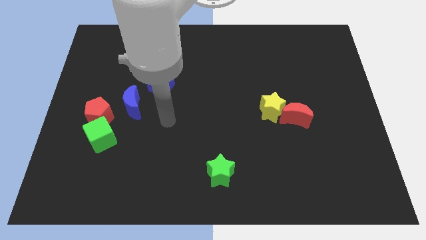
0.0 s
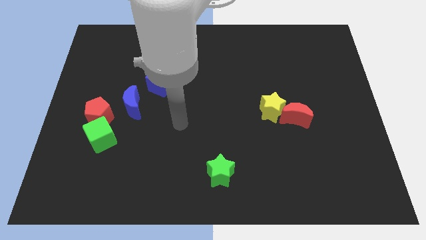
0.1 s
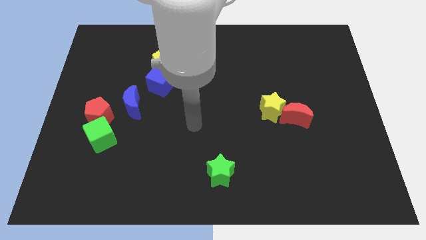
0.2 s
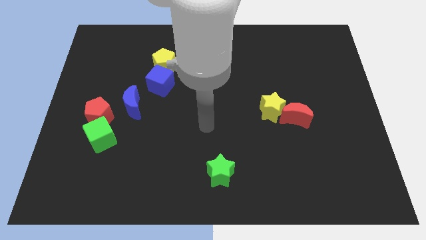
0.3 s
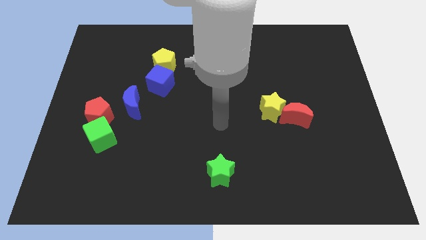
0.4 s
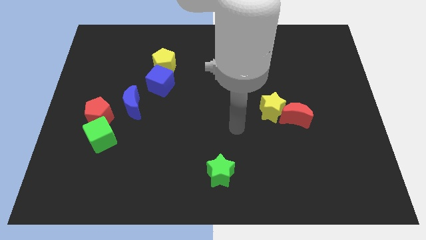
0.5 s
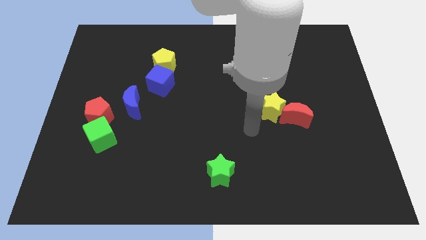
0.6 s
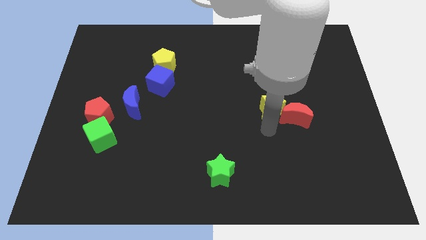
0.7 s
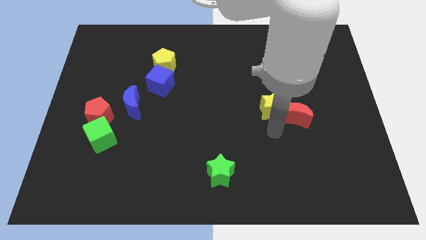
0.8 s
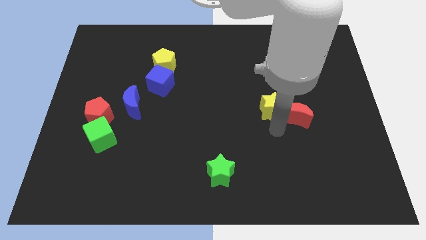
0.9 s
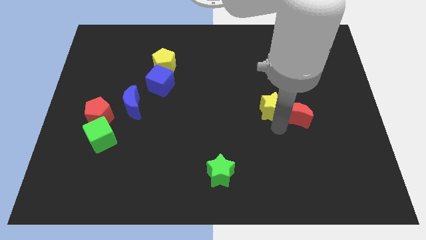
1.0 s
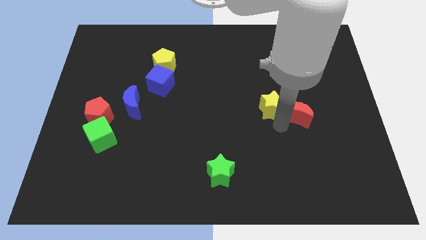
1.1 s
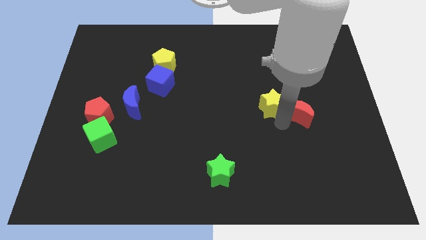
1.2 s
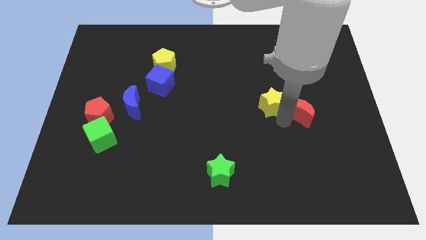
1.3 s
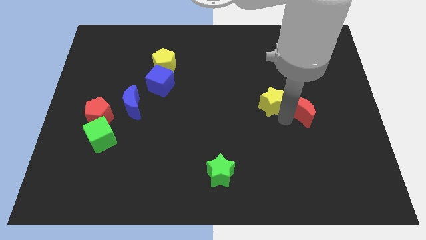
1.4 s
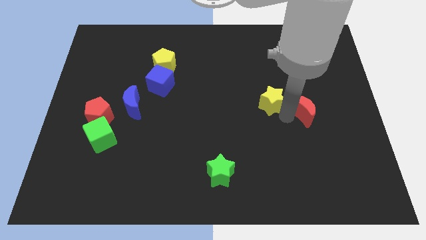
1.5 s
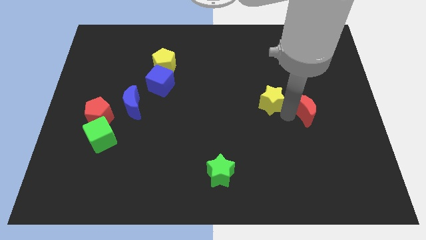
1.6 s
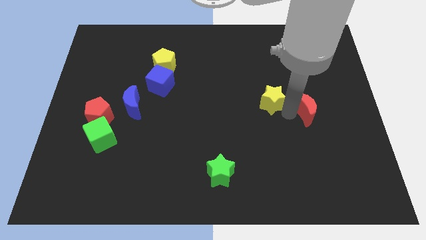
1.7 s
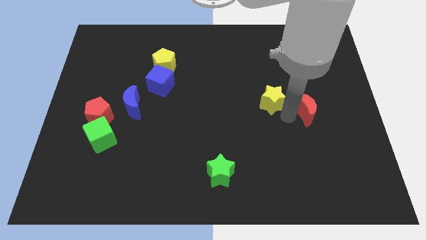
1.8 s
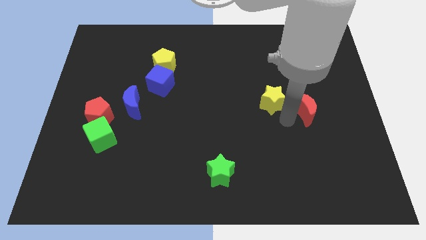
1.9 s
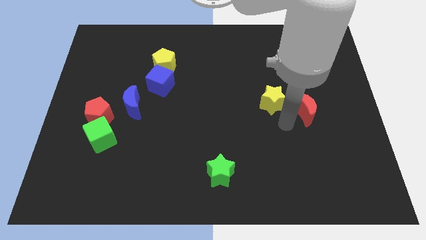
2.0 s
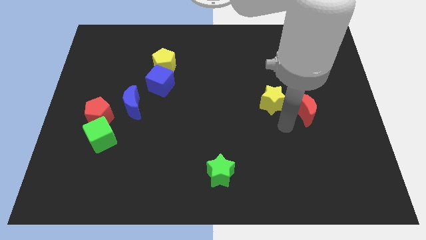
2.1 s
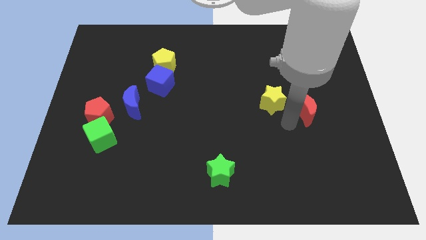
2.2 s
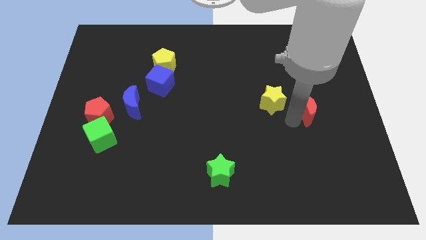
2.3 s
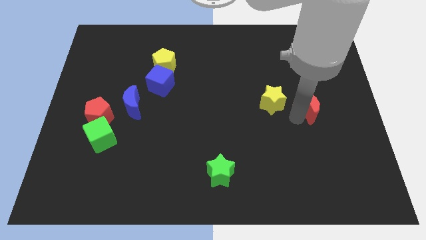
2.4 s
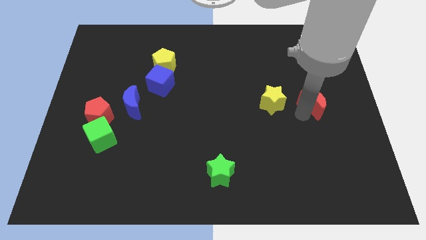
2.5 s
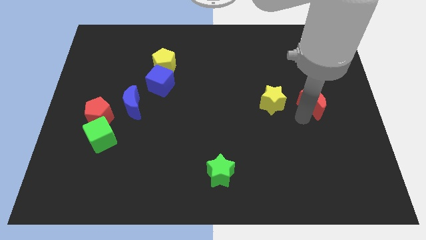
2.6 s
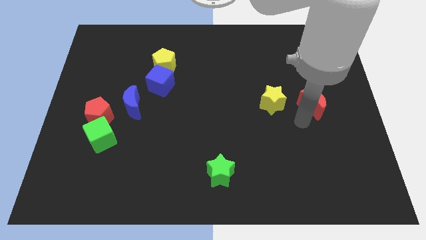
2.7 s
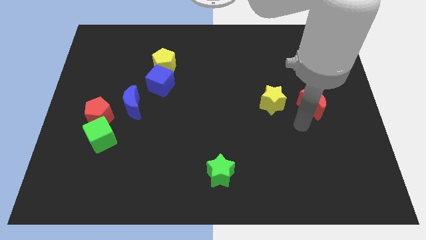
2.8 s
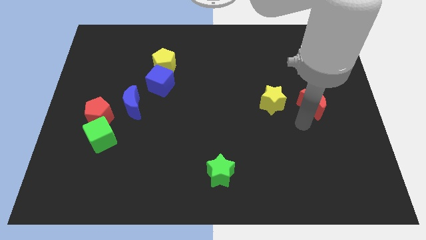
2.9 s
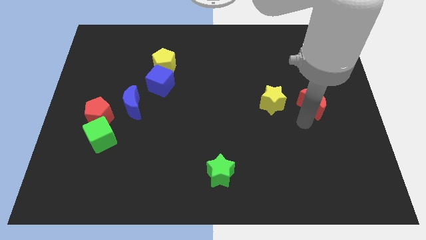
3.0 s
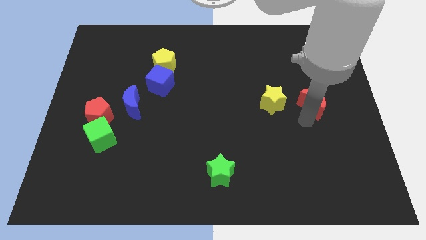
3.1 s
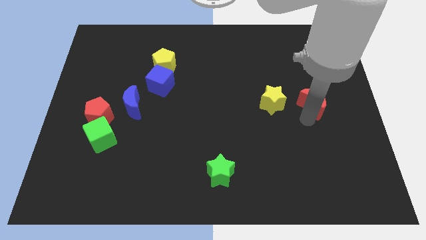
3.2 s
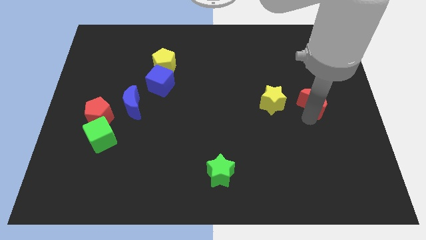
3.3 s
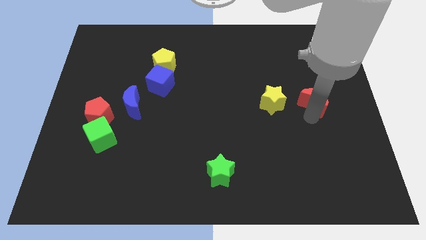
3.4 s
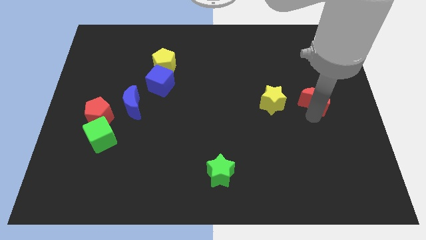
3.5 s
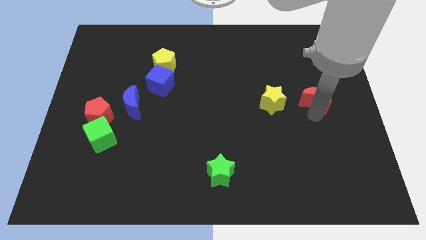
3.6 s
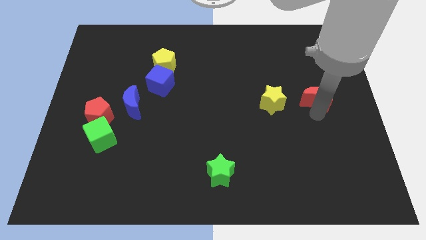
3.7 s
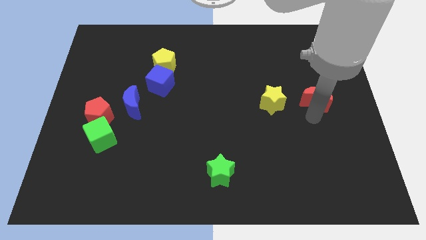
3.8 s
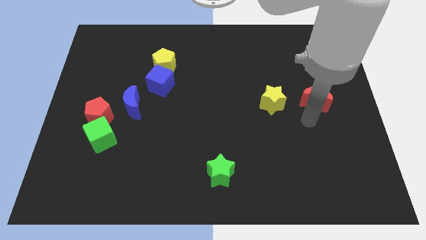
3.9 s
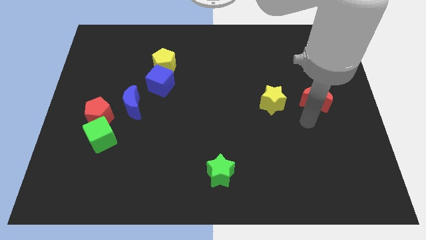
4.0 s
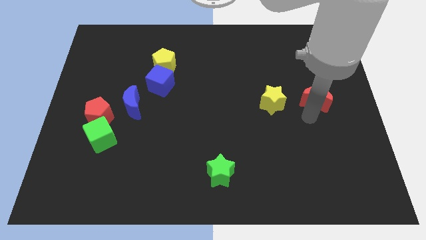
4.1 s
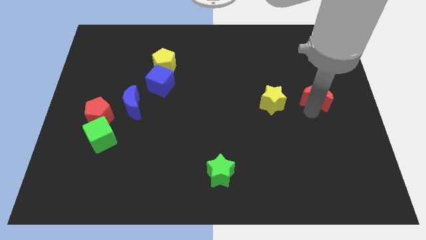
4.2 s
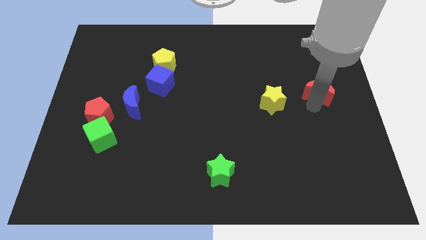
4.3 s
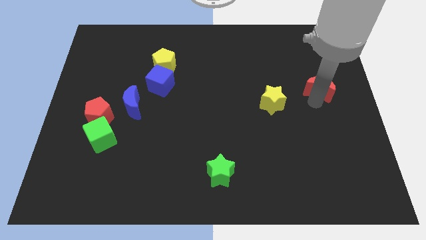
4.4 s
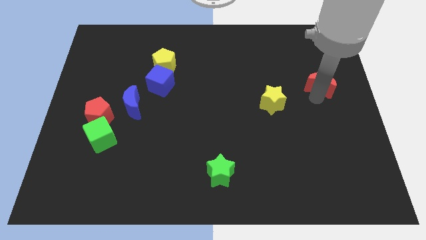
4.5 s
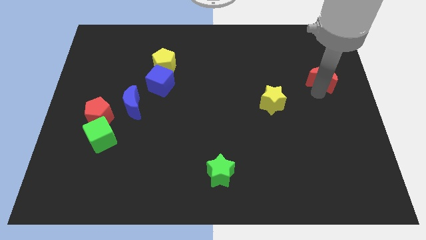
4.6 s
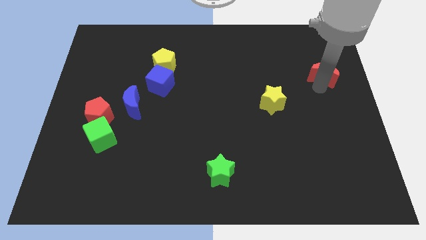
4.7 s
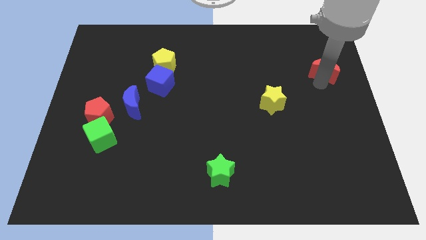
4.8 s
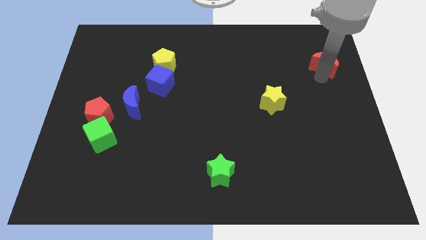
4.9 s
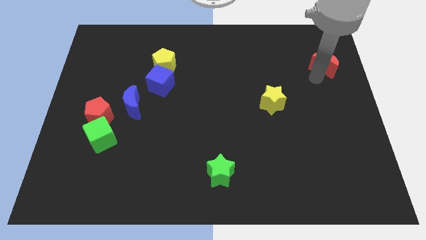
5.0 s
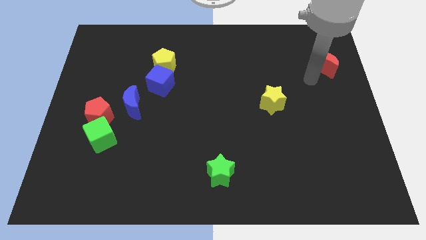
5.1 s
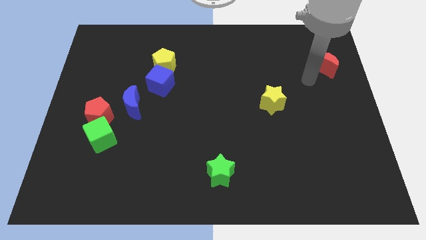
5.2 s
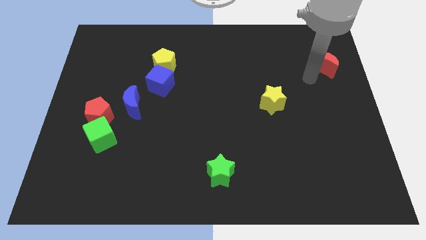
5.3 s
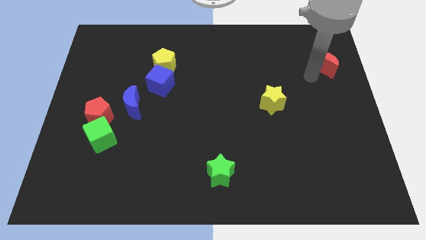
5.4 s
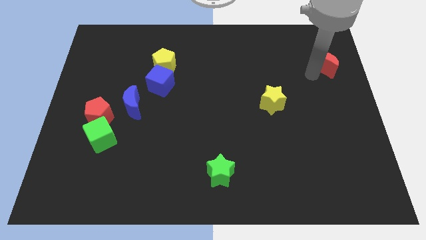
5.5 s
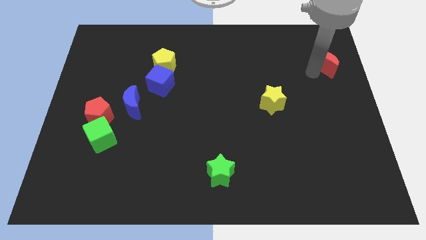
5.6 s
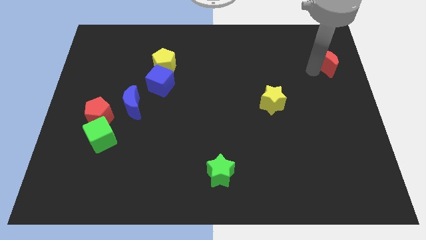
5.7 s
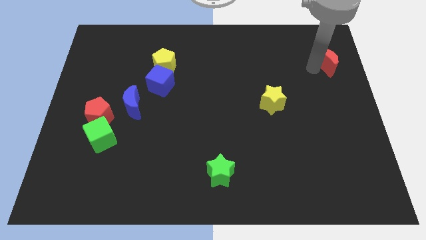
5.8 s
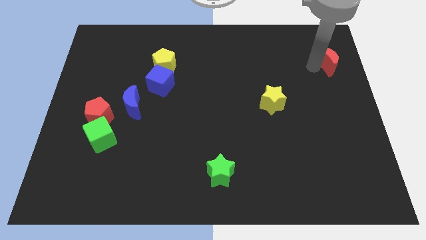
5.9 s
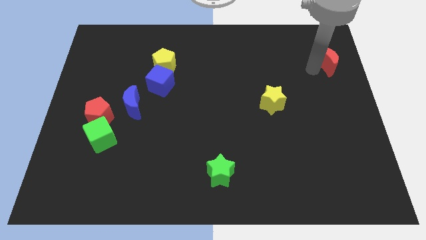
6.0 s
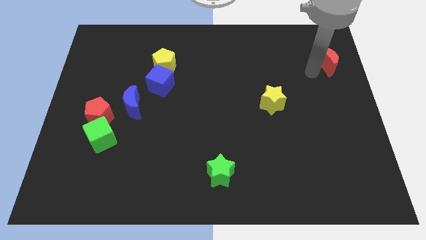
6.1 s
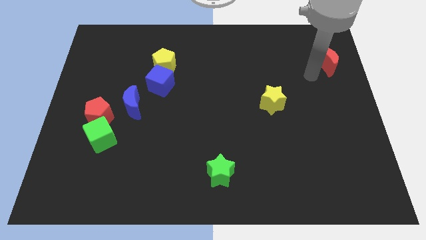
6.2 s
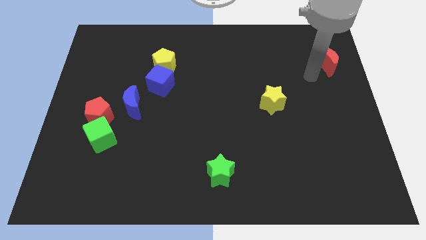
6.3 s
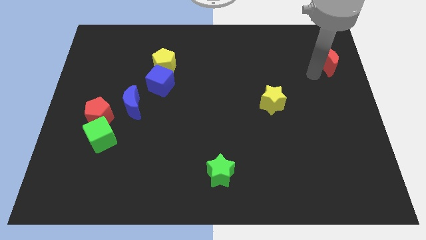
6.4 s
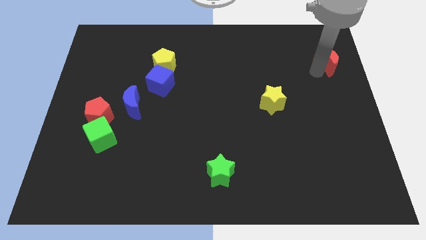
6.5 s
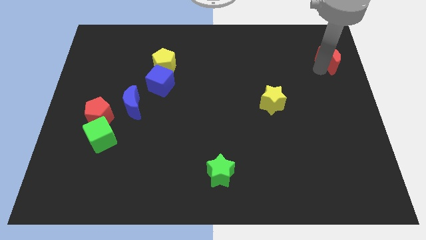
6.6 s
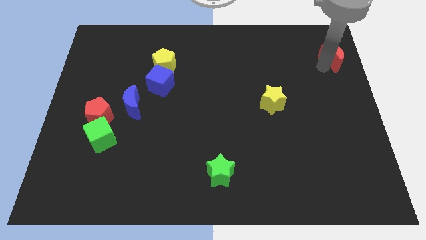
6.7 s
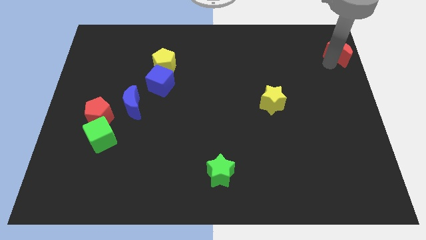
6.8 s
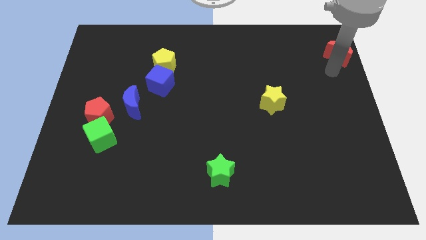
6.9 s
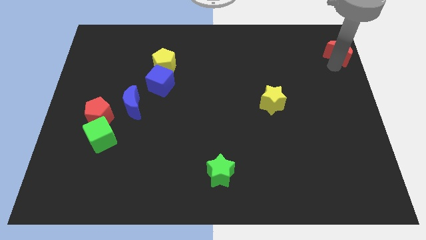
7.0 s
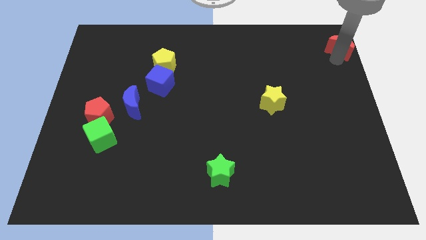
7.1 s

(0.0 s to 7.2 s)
put the red moon to the top right
